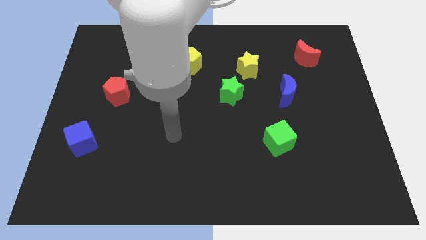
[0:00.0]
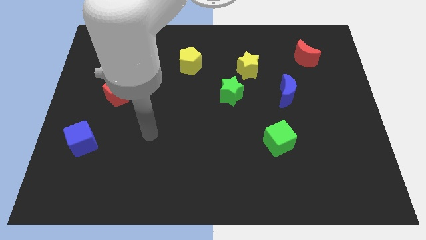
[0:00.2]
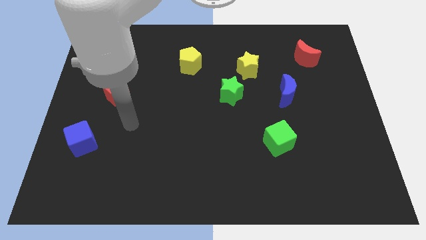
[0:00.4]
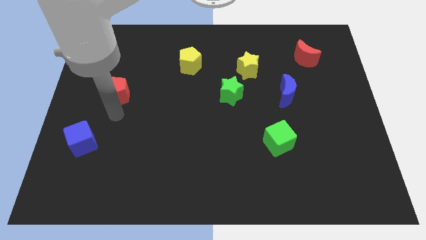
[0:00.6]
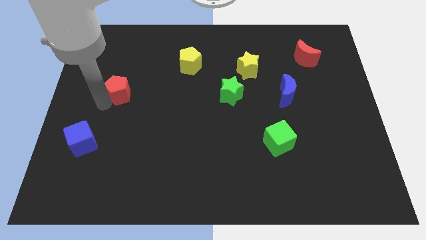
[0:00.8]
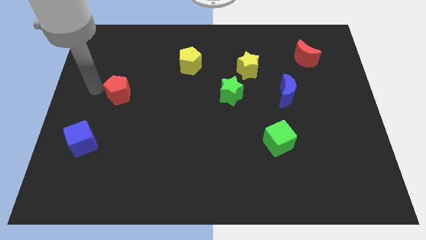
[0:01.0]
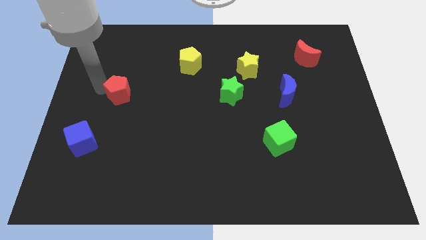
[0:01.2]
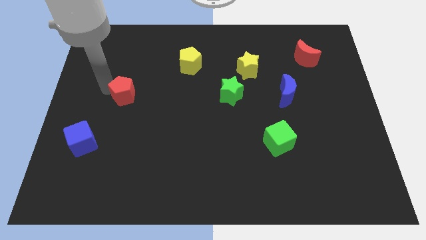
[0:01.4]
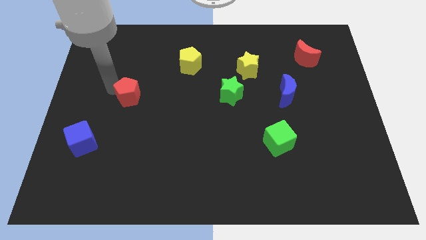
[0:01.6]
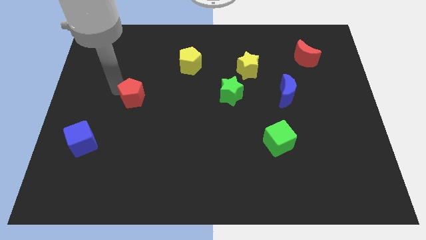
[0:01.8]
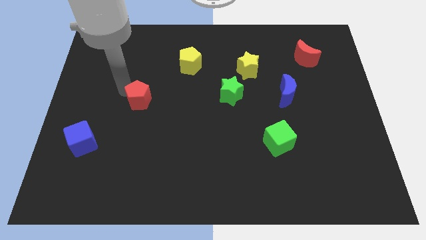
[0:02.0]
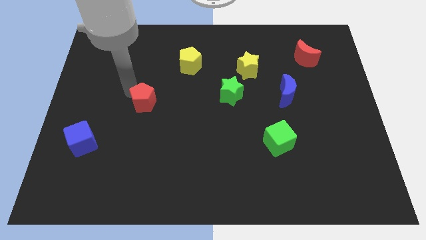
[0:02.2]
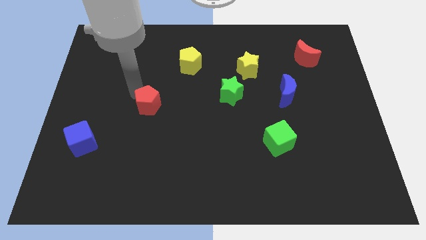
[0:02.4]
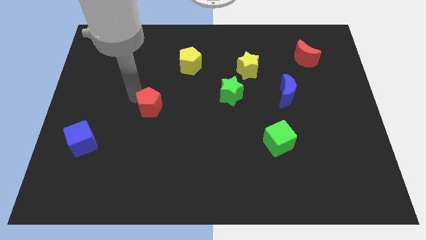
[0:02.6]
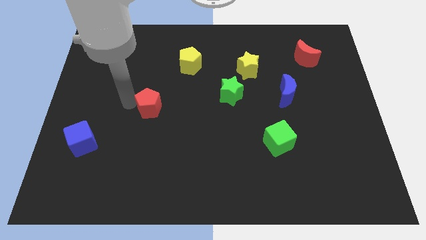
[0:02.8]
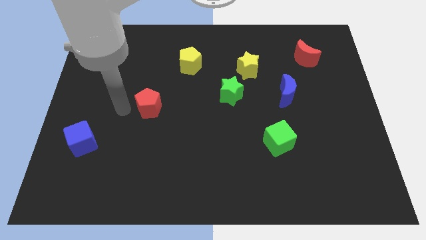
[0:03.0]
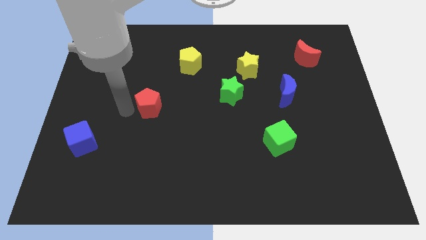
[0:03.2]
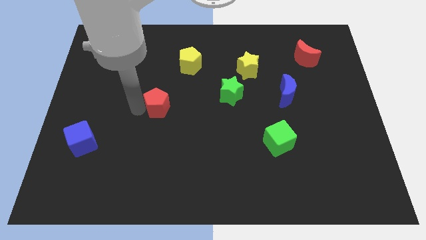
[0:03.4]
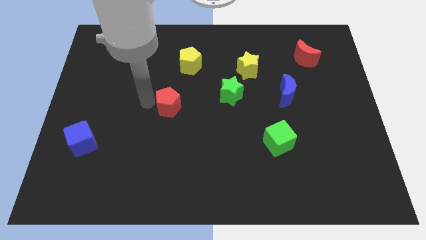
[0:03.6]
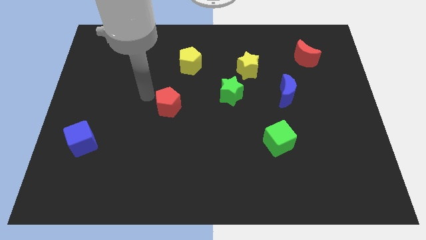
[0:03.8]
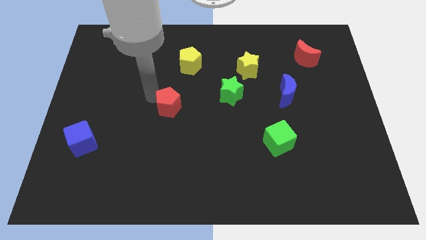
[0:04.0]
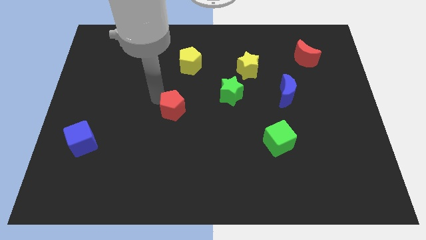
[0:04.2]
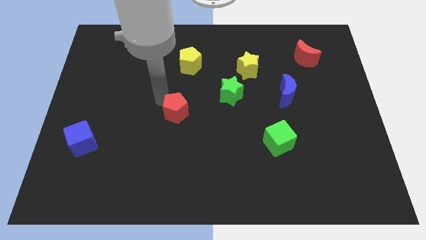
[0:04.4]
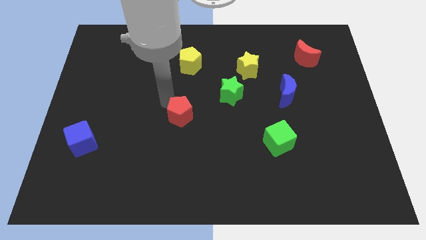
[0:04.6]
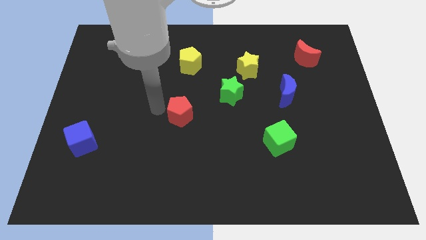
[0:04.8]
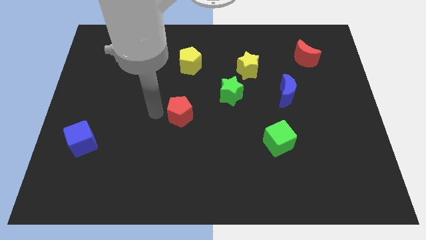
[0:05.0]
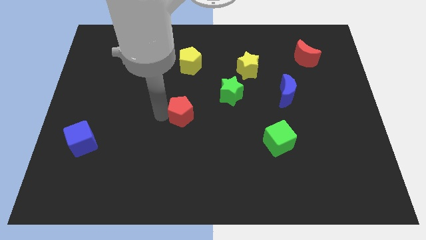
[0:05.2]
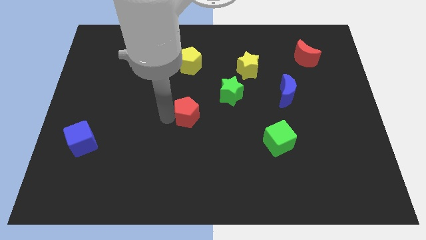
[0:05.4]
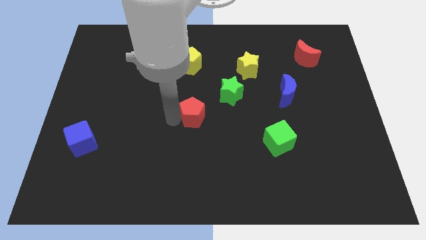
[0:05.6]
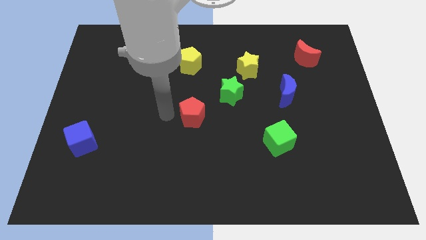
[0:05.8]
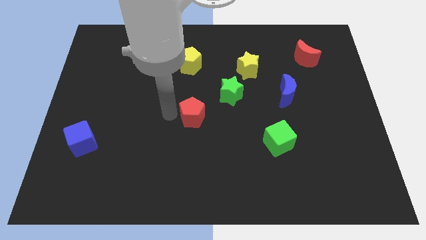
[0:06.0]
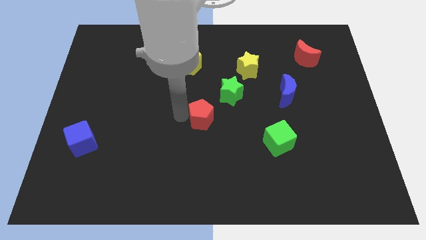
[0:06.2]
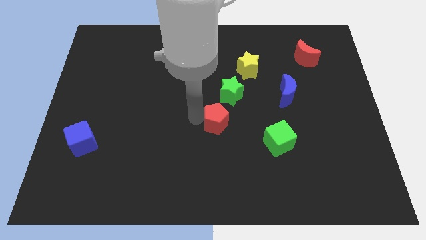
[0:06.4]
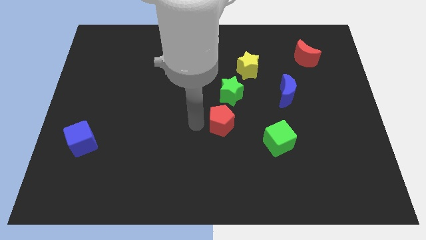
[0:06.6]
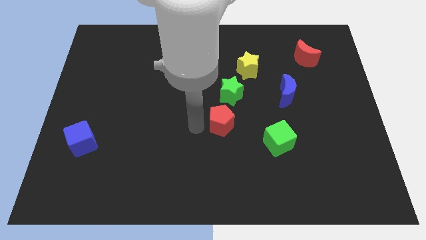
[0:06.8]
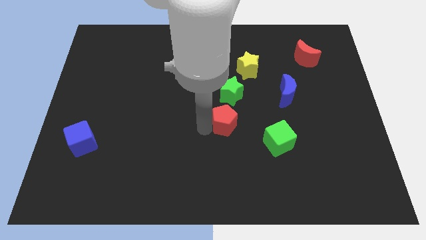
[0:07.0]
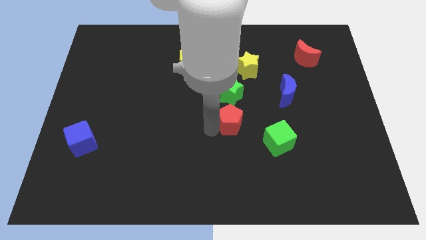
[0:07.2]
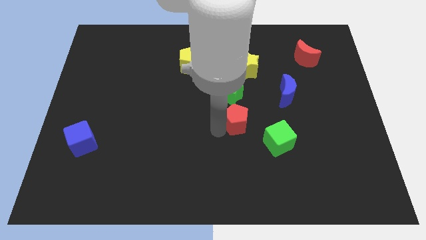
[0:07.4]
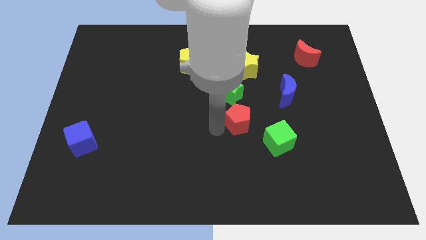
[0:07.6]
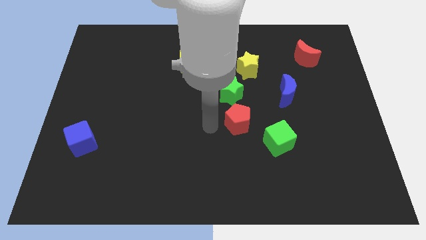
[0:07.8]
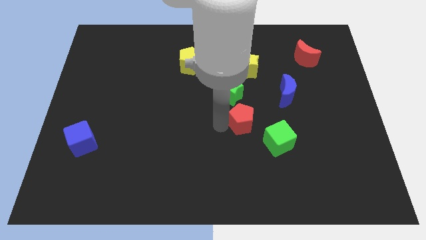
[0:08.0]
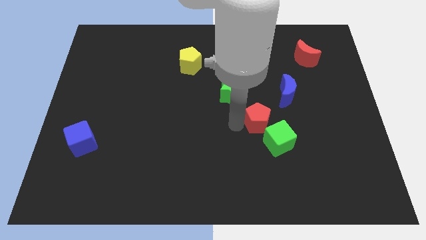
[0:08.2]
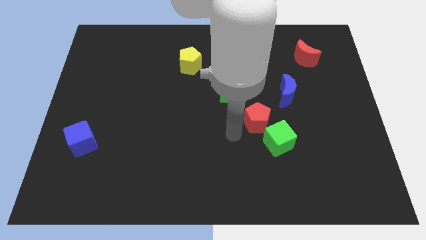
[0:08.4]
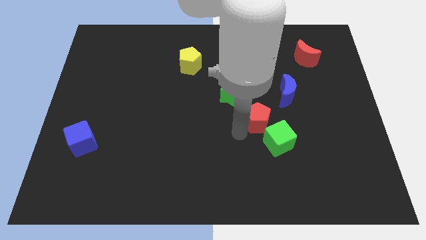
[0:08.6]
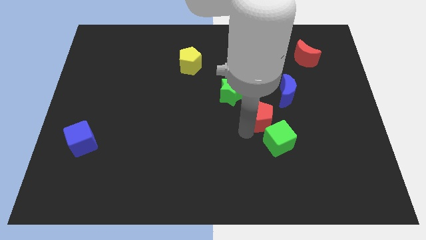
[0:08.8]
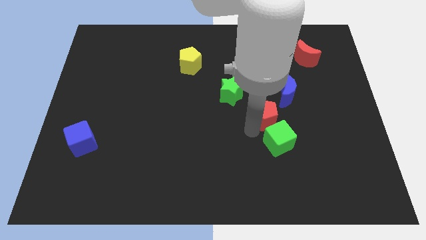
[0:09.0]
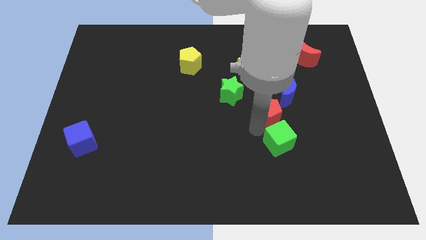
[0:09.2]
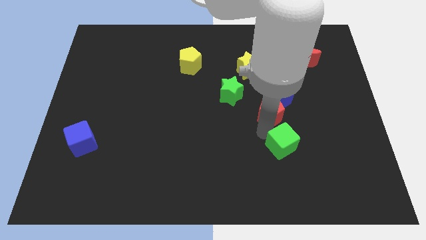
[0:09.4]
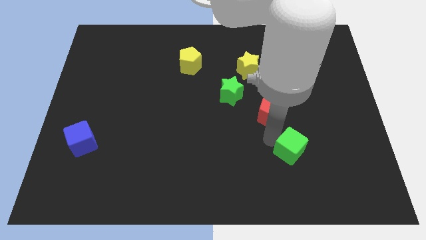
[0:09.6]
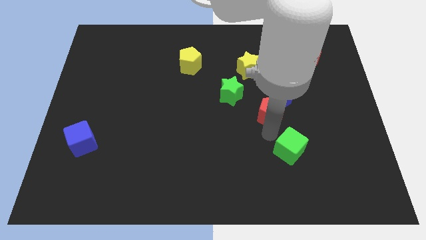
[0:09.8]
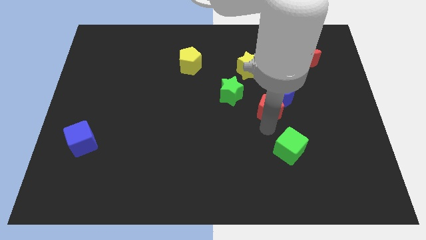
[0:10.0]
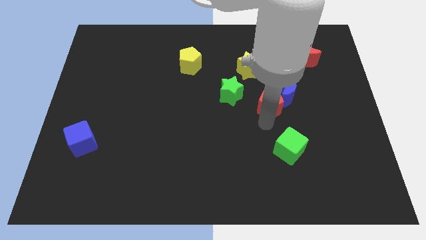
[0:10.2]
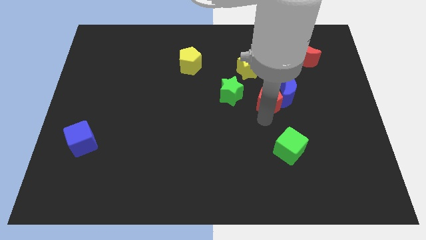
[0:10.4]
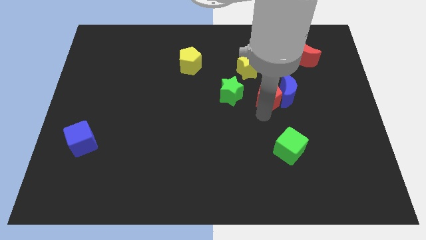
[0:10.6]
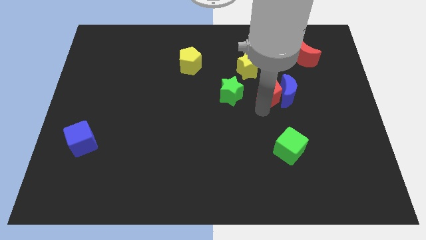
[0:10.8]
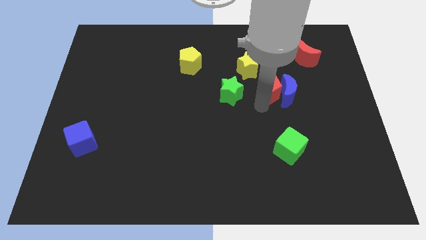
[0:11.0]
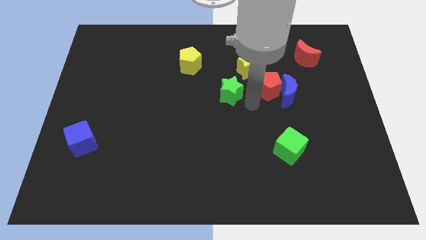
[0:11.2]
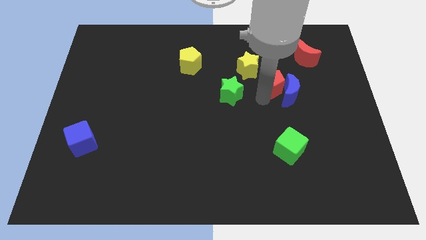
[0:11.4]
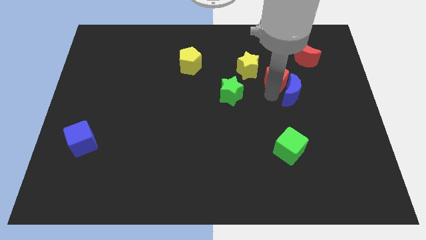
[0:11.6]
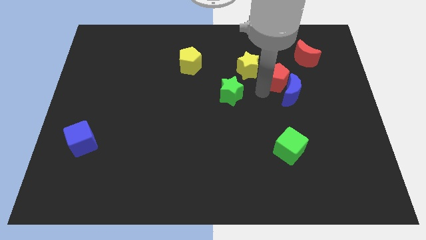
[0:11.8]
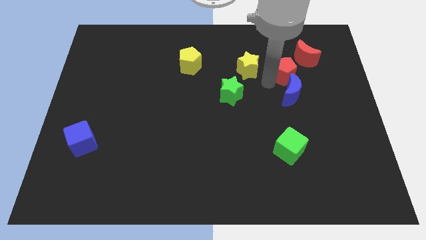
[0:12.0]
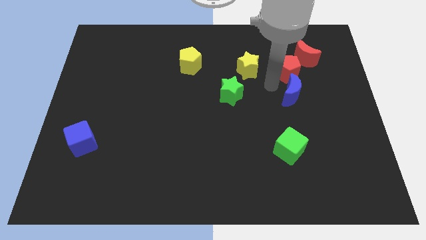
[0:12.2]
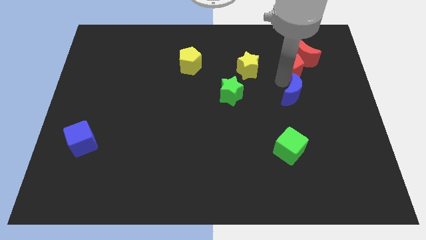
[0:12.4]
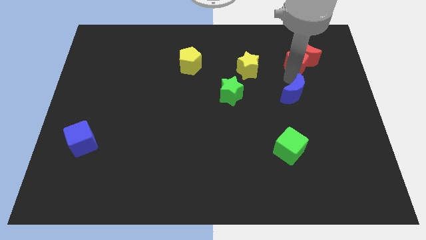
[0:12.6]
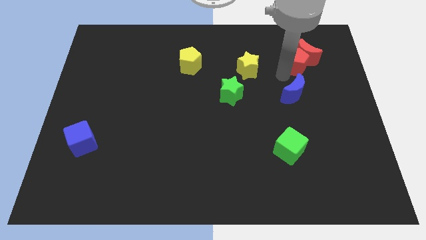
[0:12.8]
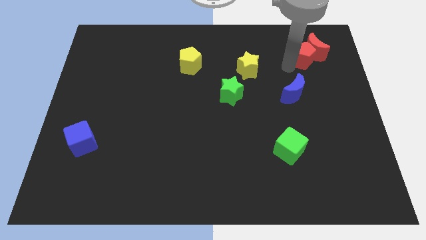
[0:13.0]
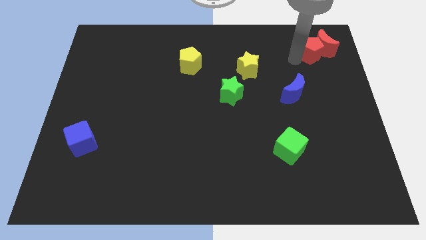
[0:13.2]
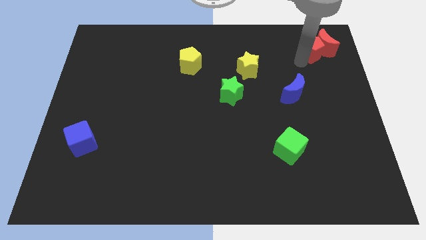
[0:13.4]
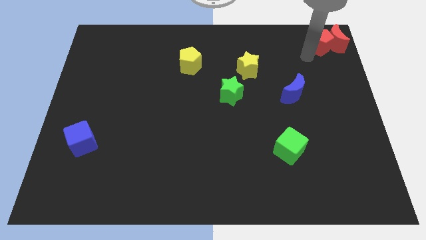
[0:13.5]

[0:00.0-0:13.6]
move the red pentagon to the top right

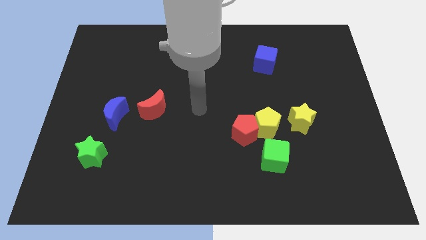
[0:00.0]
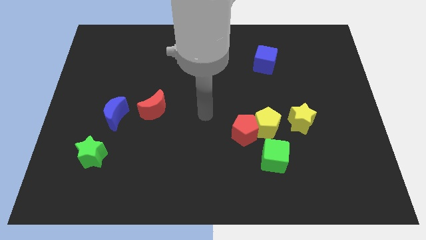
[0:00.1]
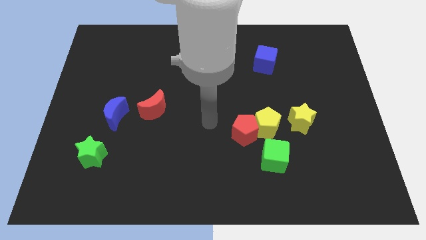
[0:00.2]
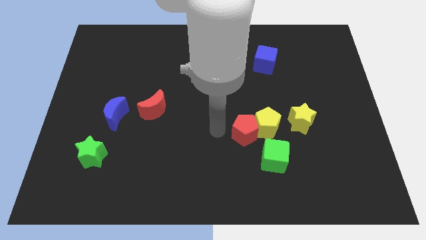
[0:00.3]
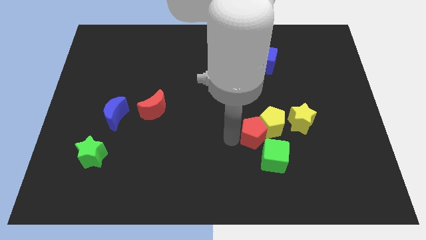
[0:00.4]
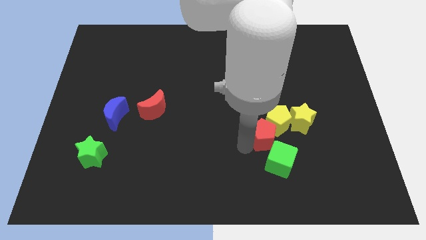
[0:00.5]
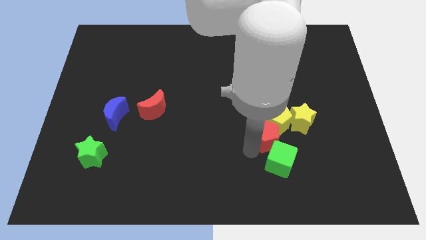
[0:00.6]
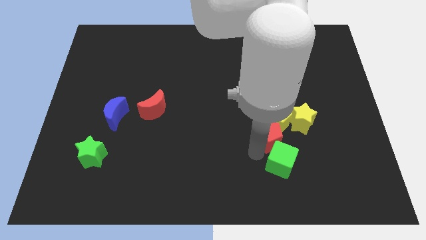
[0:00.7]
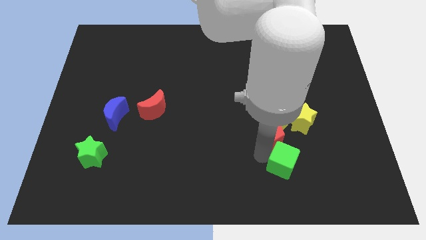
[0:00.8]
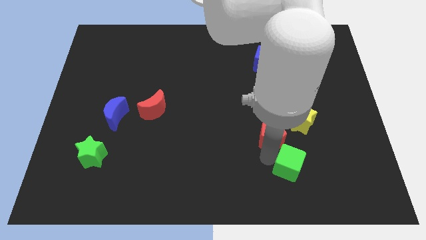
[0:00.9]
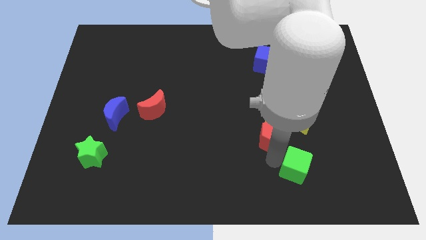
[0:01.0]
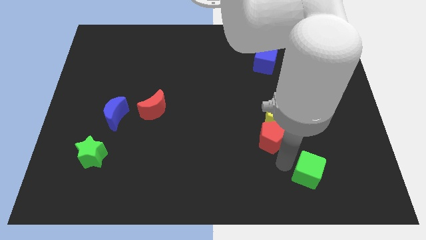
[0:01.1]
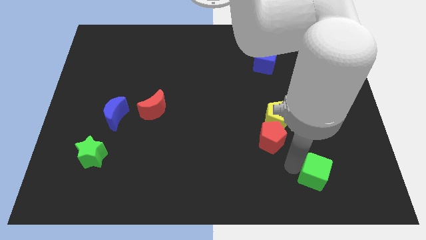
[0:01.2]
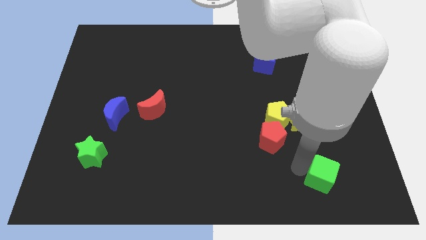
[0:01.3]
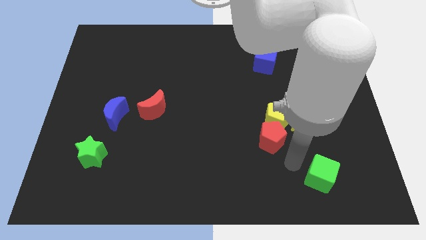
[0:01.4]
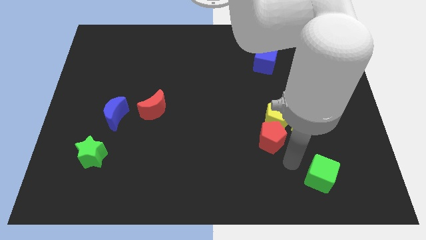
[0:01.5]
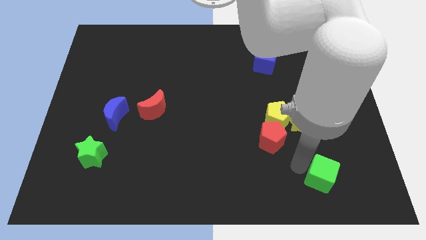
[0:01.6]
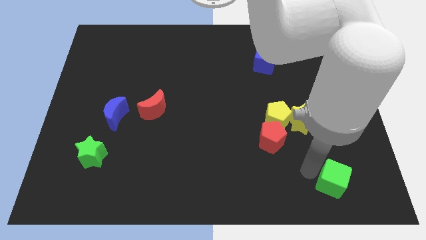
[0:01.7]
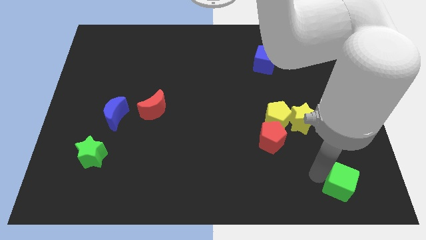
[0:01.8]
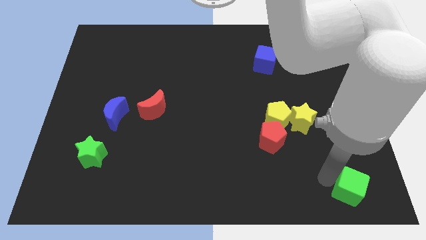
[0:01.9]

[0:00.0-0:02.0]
put the green cube to the bottom right of the board
